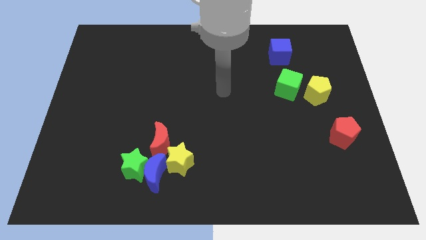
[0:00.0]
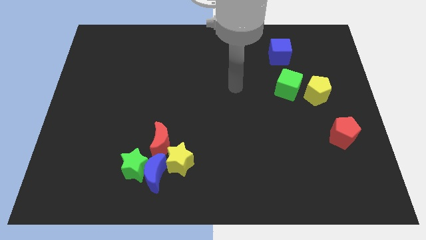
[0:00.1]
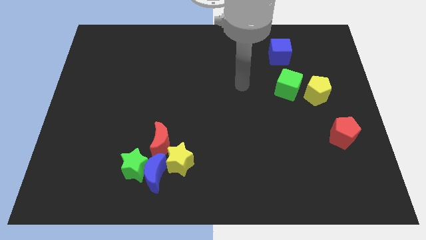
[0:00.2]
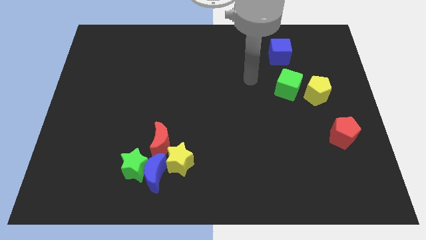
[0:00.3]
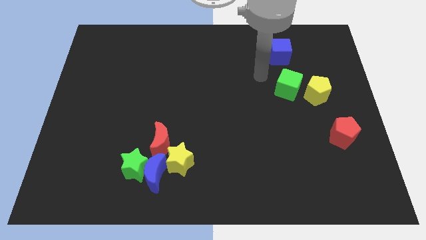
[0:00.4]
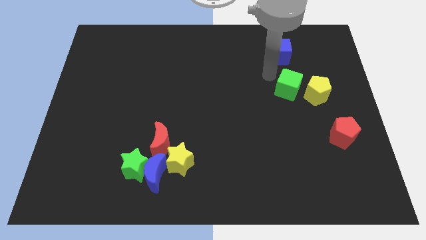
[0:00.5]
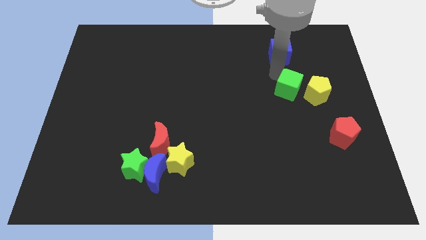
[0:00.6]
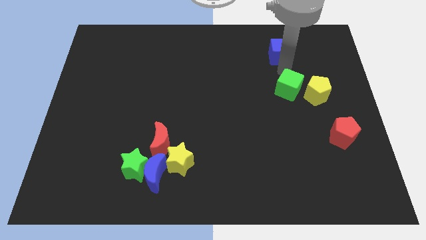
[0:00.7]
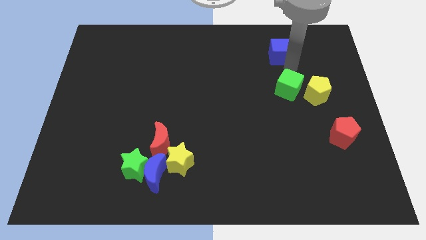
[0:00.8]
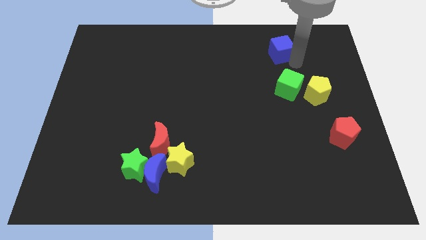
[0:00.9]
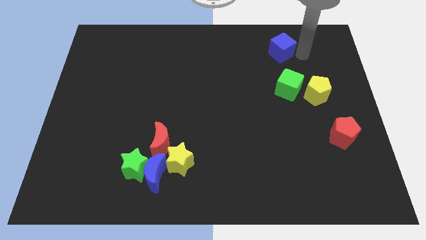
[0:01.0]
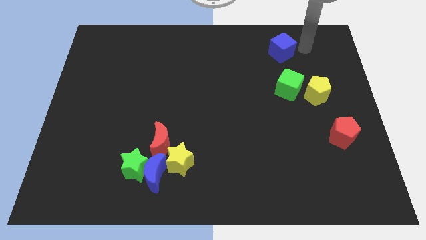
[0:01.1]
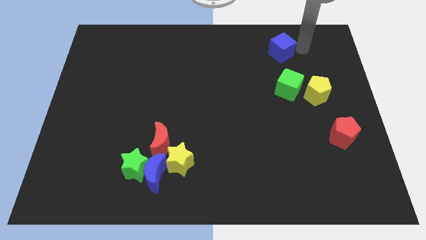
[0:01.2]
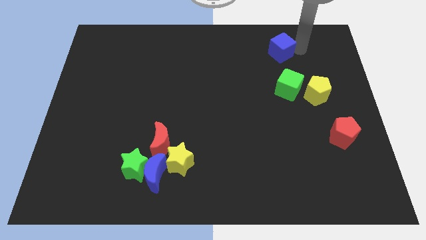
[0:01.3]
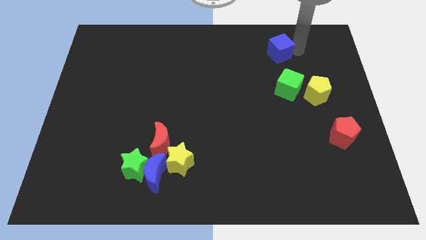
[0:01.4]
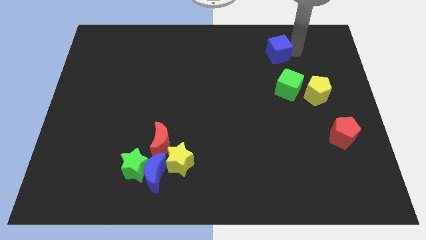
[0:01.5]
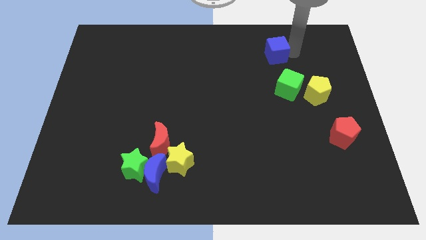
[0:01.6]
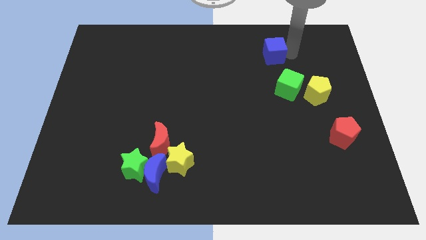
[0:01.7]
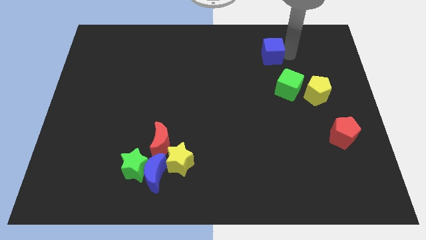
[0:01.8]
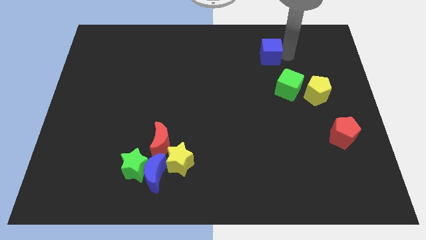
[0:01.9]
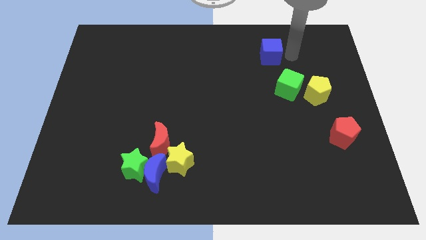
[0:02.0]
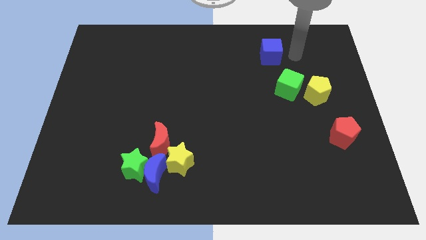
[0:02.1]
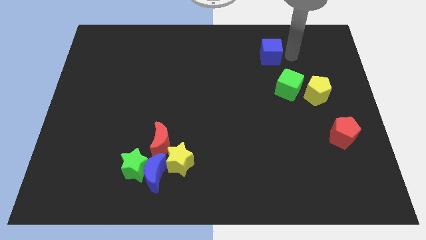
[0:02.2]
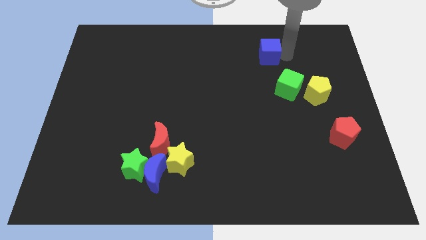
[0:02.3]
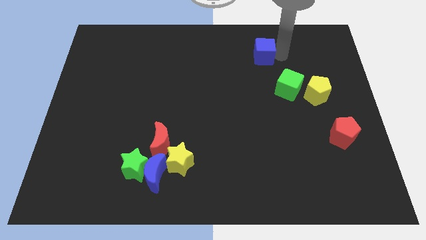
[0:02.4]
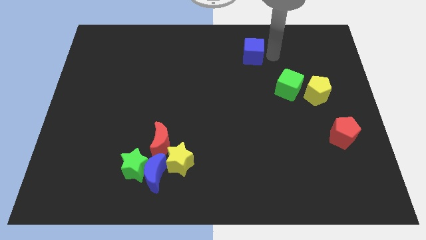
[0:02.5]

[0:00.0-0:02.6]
push the blue cube a bit left

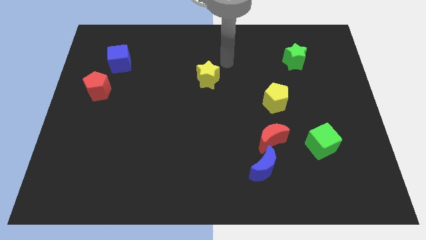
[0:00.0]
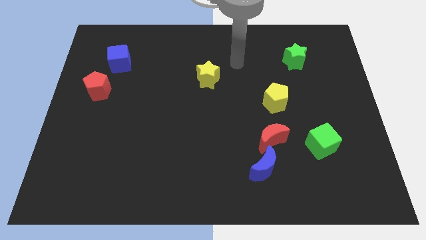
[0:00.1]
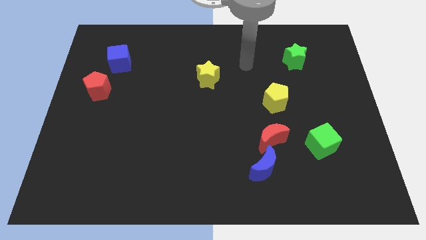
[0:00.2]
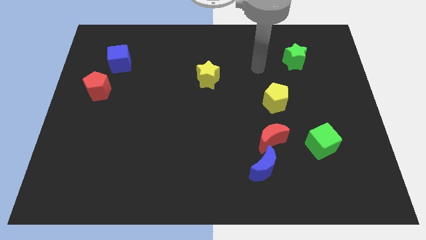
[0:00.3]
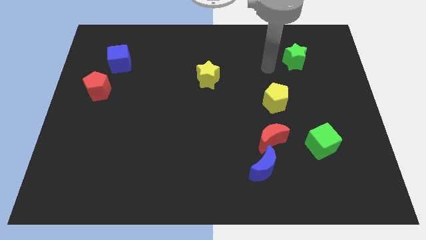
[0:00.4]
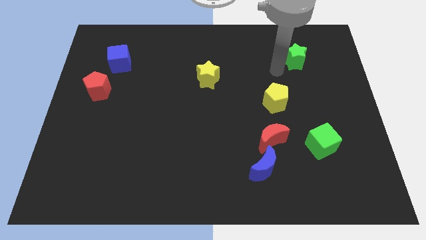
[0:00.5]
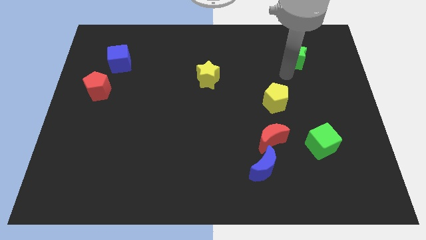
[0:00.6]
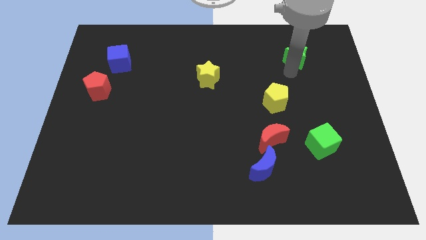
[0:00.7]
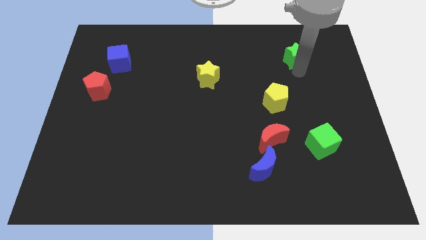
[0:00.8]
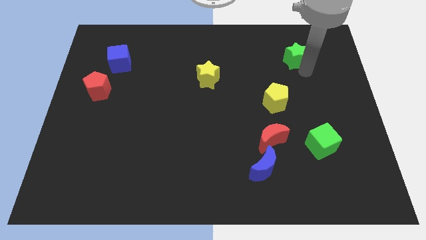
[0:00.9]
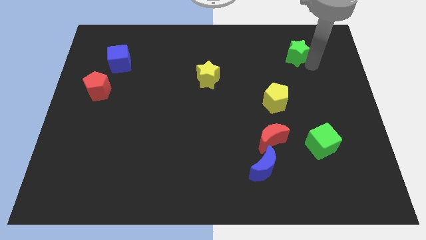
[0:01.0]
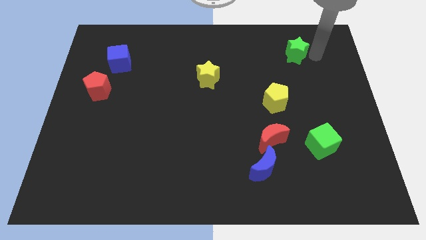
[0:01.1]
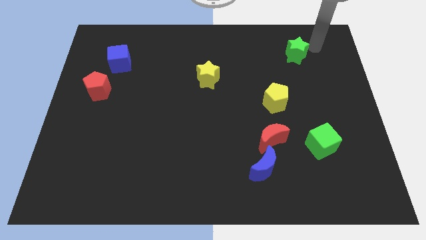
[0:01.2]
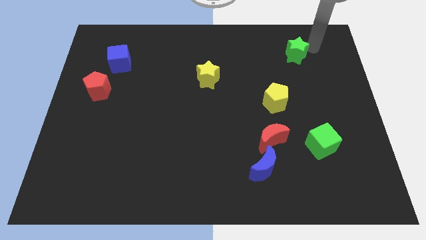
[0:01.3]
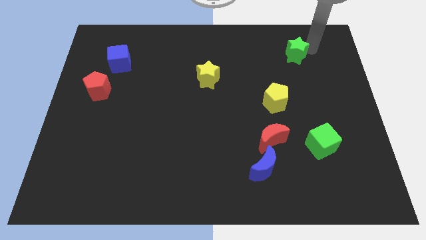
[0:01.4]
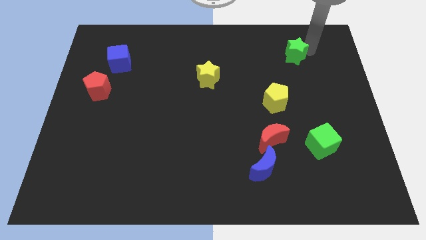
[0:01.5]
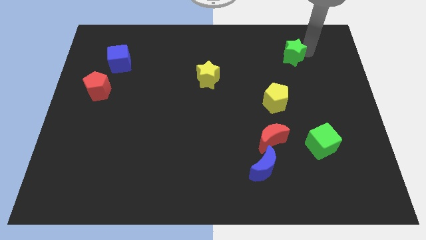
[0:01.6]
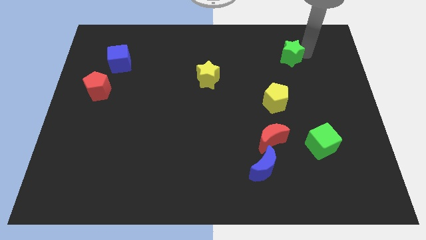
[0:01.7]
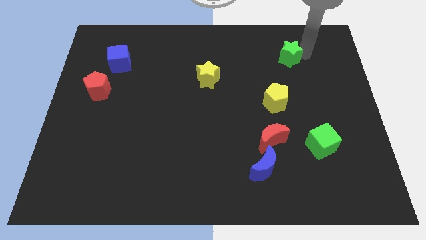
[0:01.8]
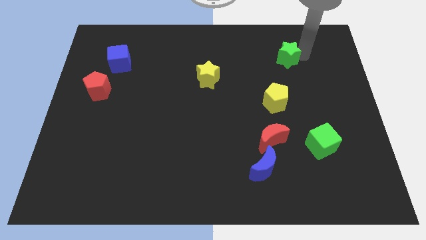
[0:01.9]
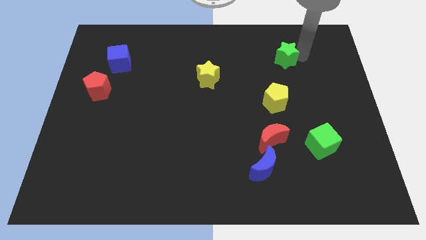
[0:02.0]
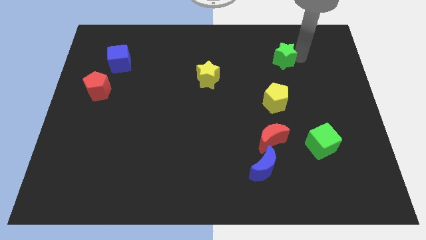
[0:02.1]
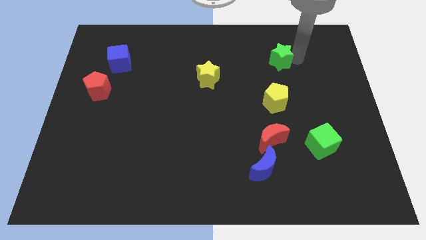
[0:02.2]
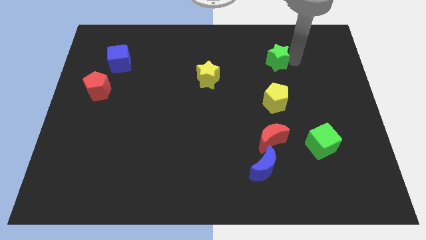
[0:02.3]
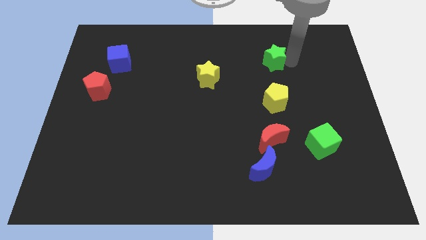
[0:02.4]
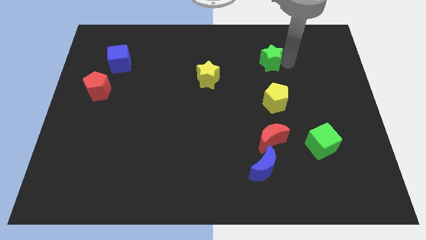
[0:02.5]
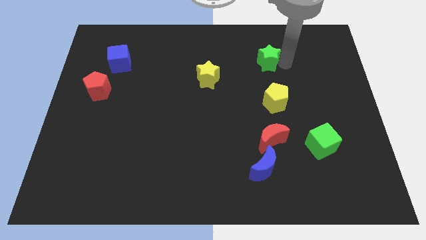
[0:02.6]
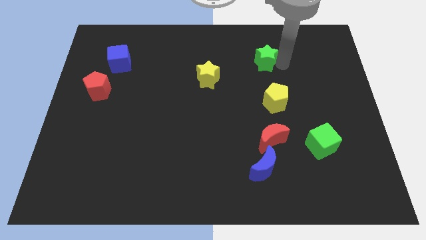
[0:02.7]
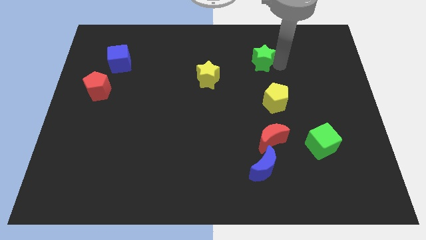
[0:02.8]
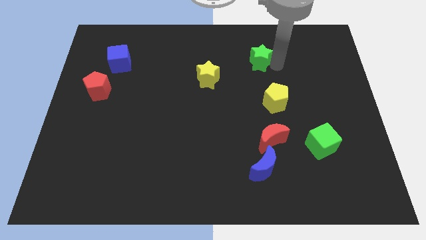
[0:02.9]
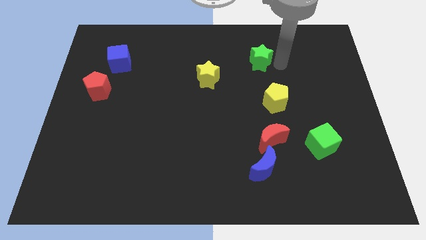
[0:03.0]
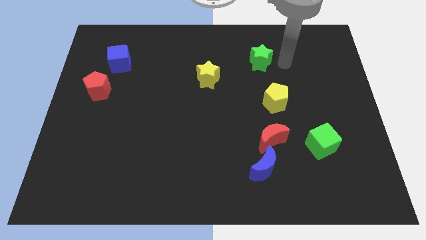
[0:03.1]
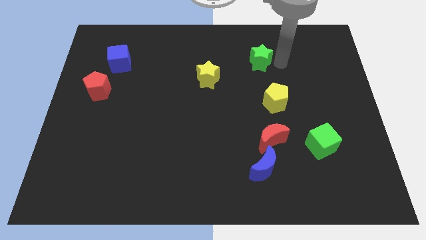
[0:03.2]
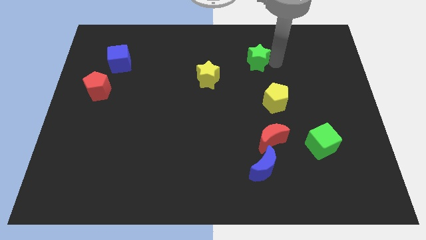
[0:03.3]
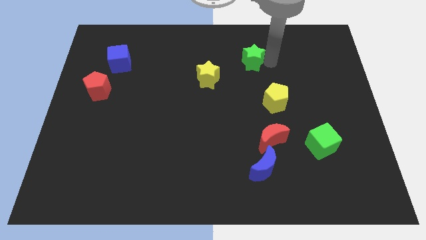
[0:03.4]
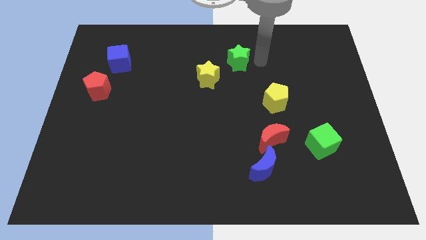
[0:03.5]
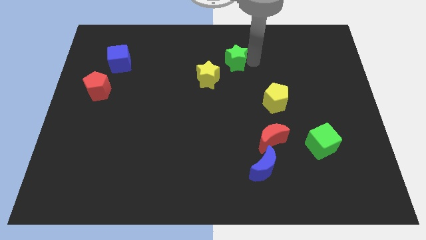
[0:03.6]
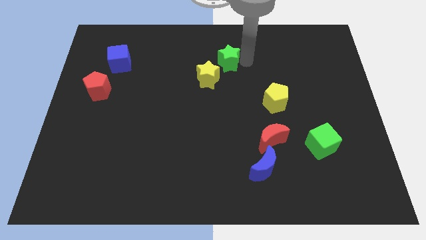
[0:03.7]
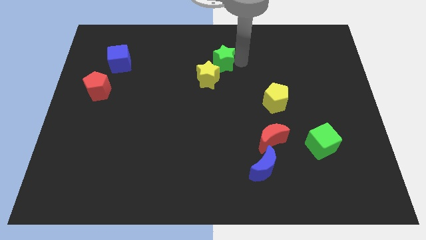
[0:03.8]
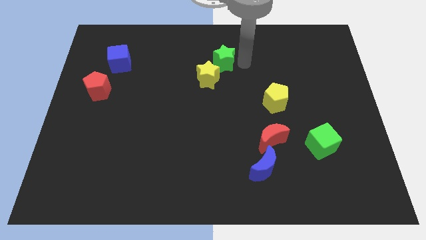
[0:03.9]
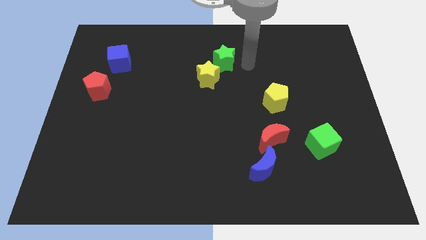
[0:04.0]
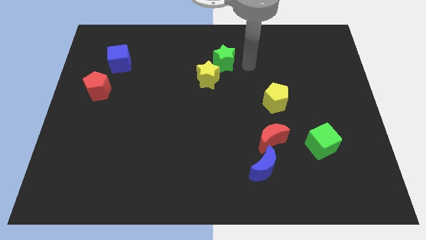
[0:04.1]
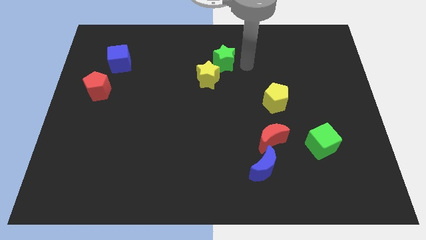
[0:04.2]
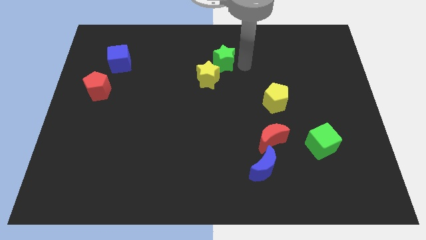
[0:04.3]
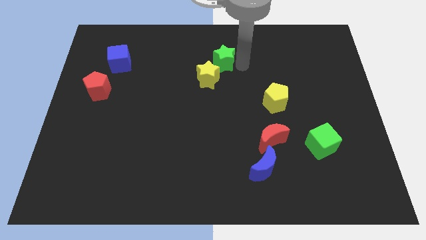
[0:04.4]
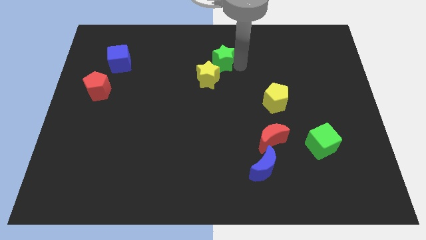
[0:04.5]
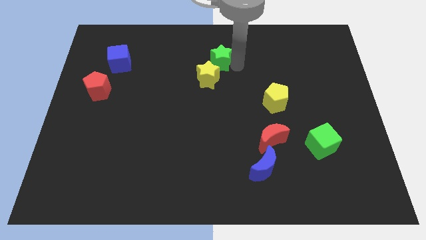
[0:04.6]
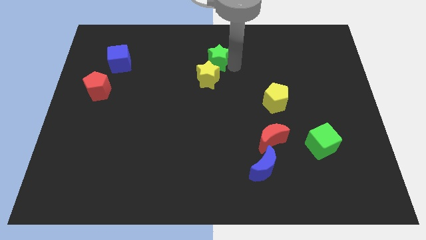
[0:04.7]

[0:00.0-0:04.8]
move the green star left

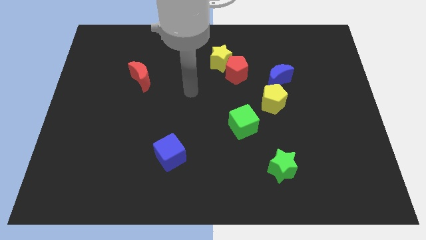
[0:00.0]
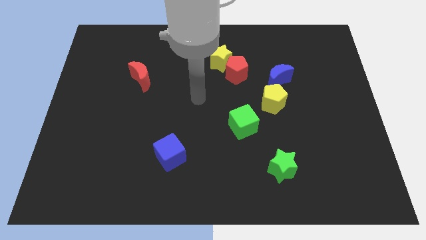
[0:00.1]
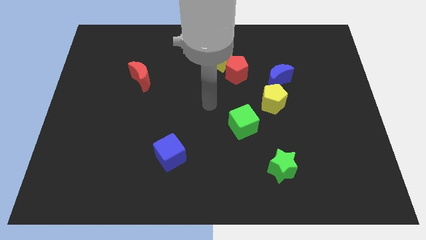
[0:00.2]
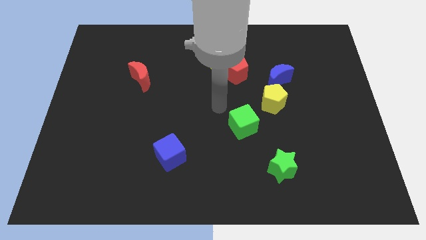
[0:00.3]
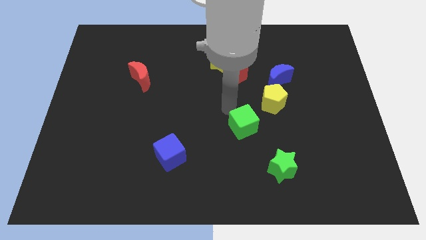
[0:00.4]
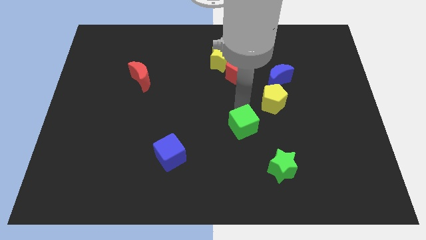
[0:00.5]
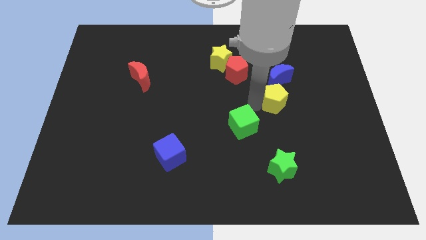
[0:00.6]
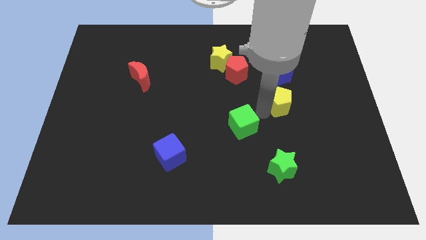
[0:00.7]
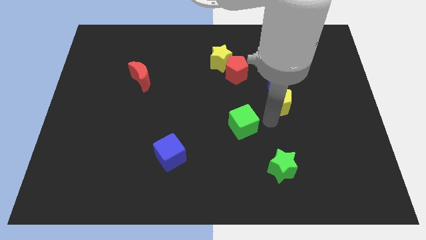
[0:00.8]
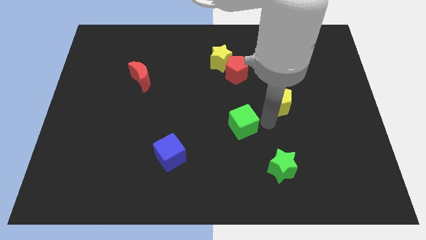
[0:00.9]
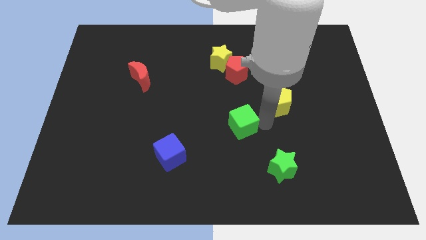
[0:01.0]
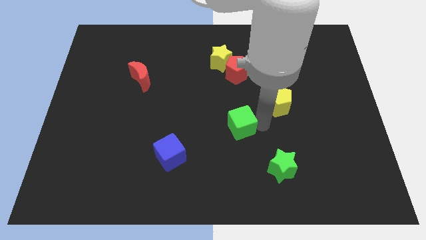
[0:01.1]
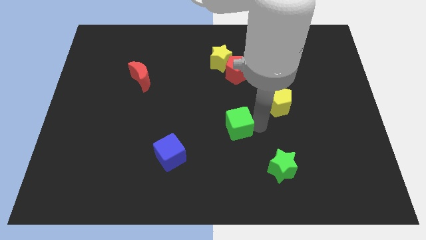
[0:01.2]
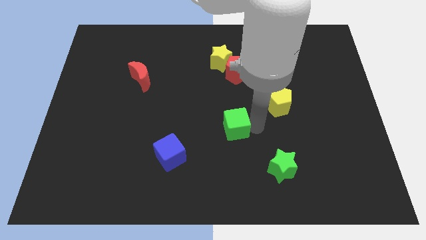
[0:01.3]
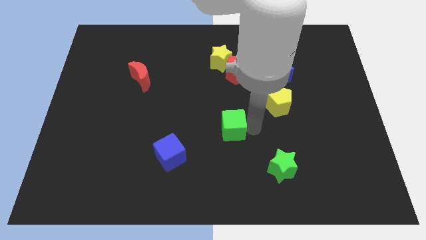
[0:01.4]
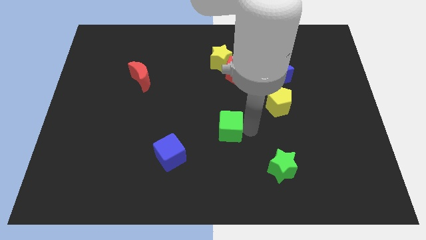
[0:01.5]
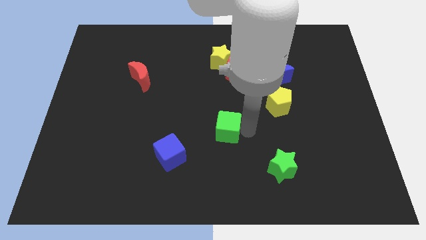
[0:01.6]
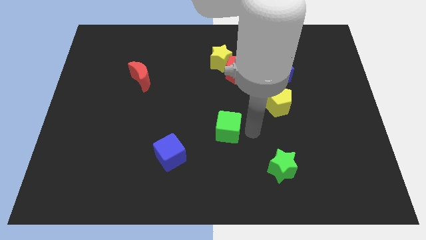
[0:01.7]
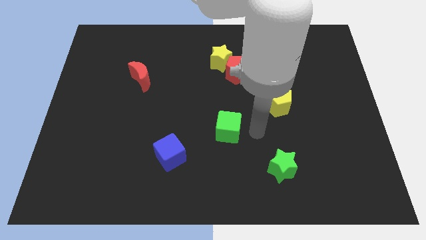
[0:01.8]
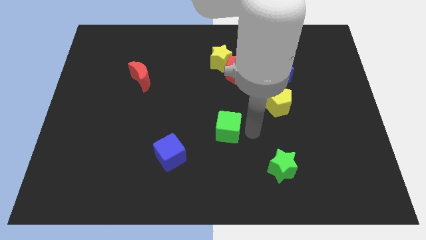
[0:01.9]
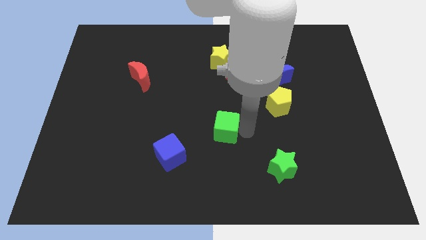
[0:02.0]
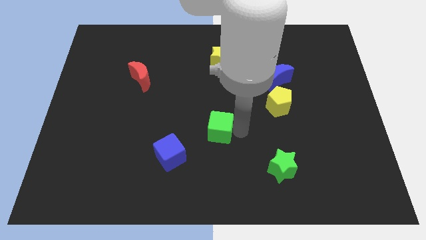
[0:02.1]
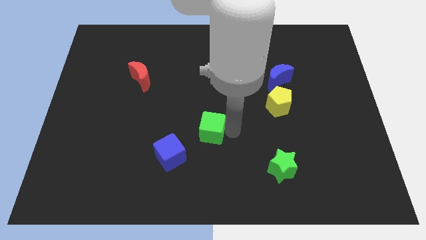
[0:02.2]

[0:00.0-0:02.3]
push the green cube left a little bit
